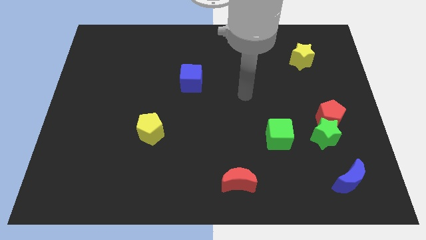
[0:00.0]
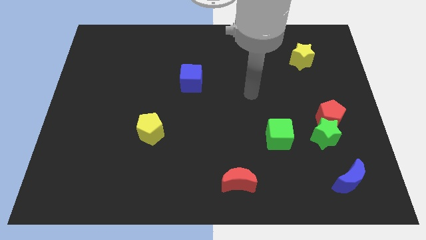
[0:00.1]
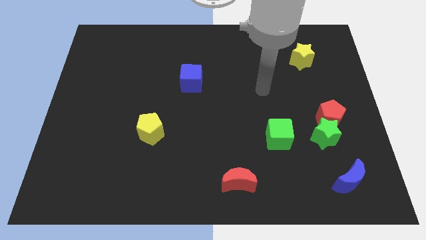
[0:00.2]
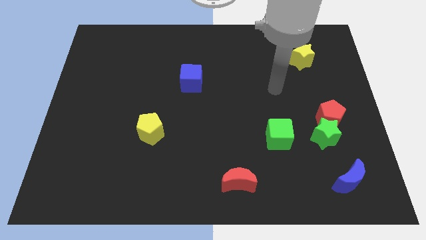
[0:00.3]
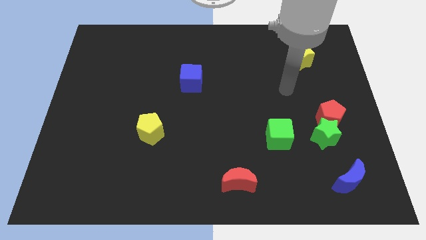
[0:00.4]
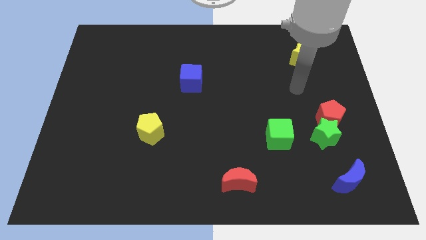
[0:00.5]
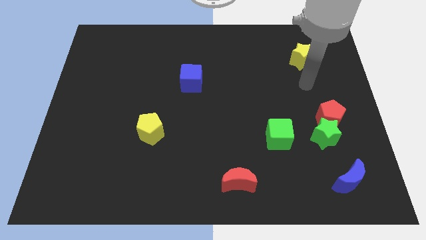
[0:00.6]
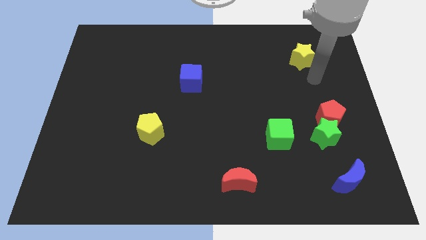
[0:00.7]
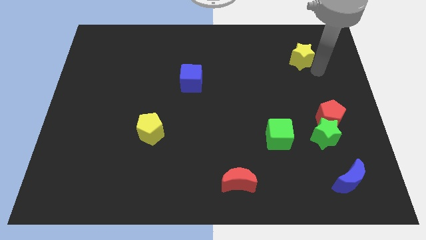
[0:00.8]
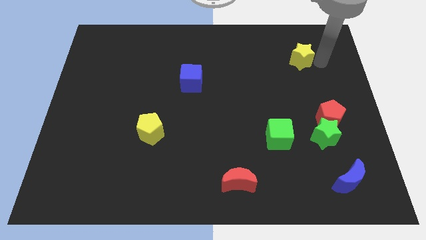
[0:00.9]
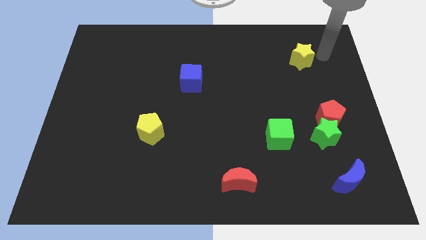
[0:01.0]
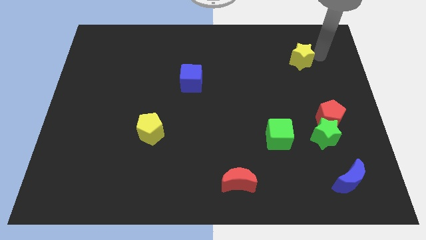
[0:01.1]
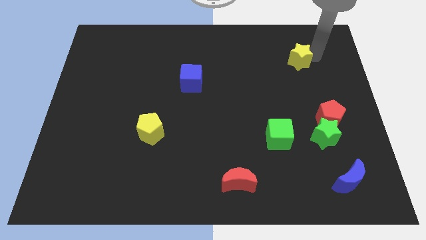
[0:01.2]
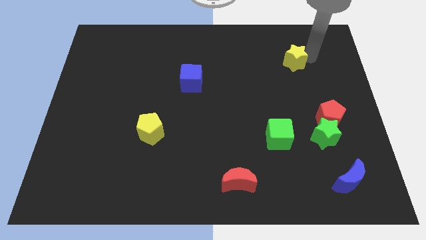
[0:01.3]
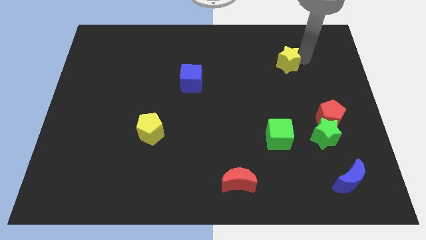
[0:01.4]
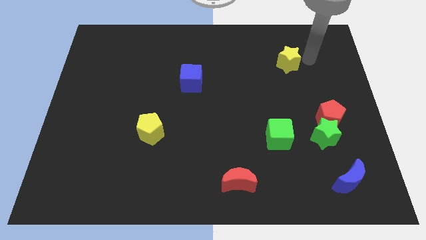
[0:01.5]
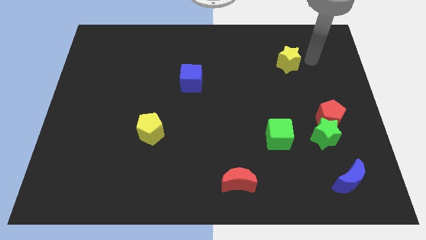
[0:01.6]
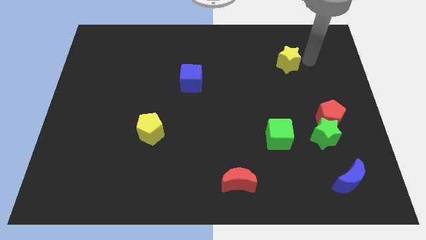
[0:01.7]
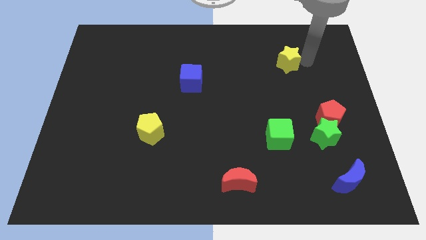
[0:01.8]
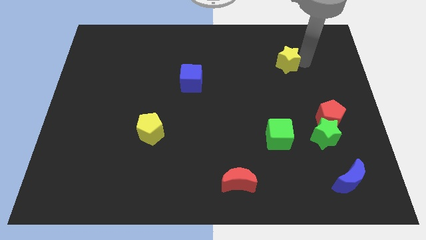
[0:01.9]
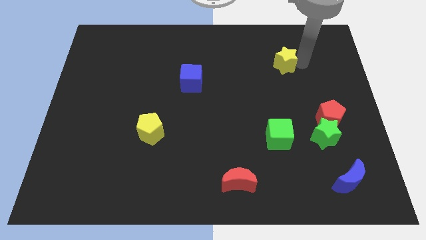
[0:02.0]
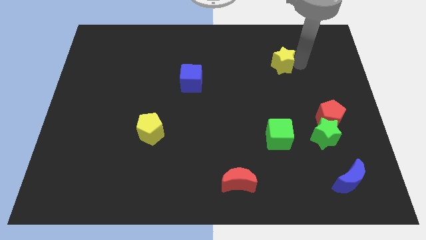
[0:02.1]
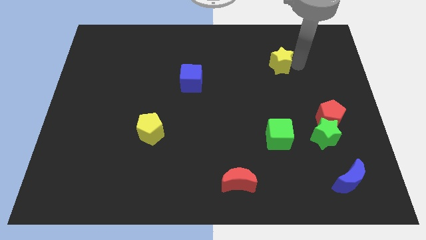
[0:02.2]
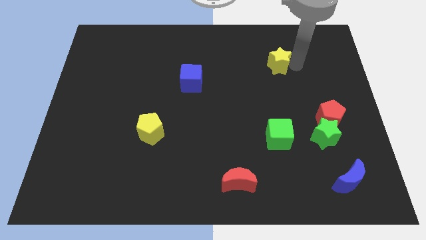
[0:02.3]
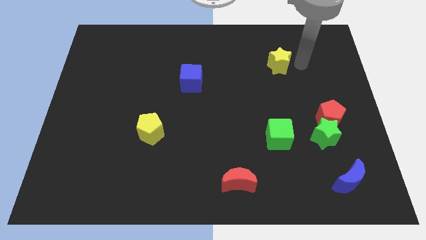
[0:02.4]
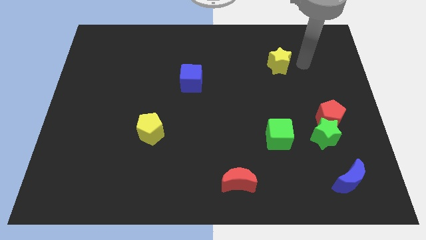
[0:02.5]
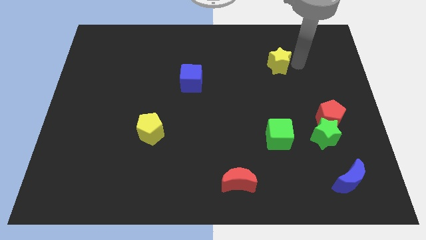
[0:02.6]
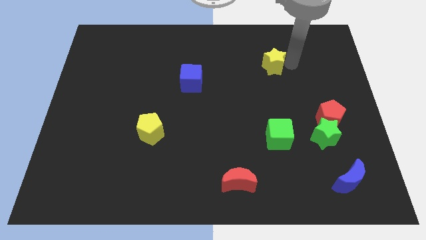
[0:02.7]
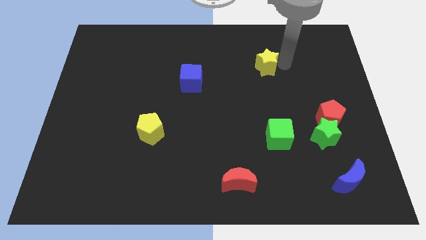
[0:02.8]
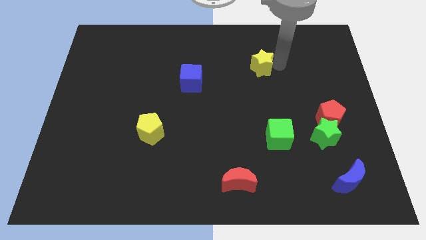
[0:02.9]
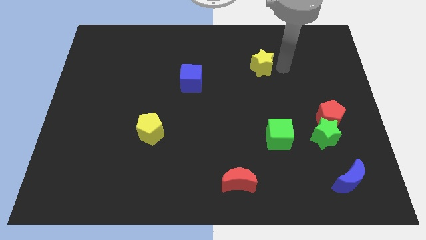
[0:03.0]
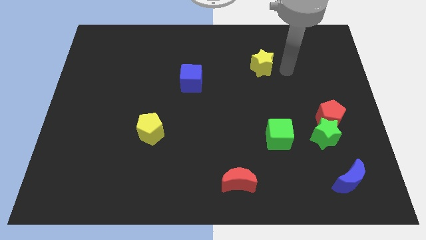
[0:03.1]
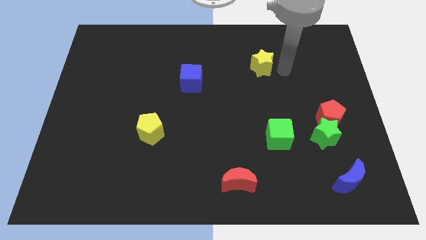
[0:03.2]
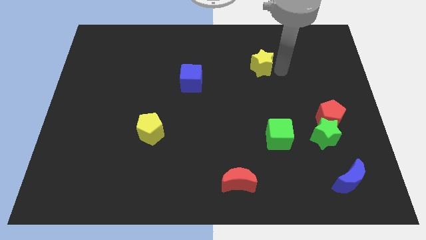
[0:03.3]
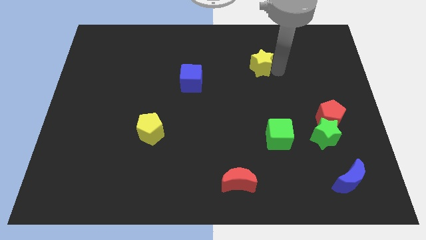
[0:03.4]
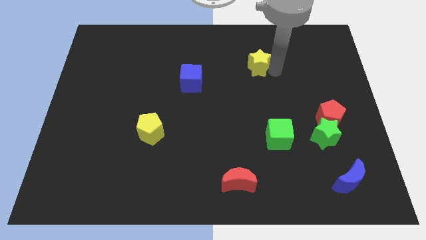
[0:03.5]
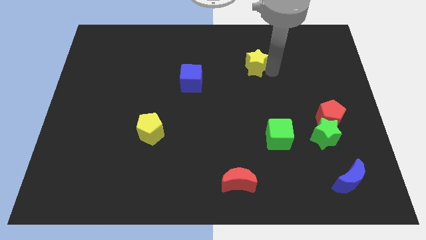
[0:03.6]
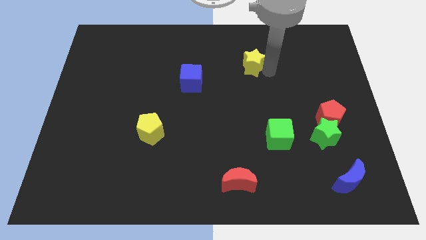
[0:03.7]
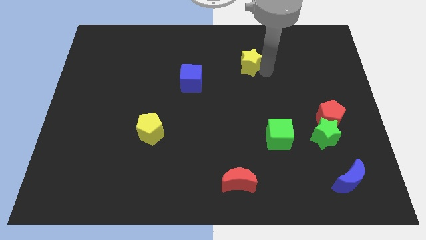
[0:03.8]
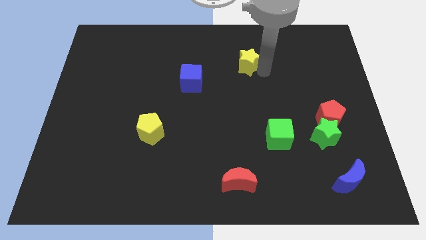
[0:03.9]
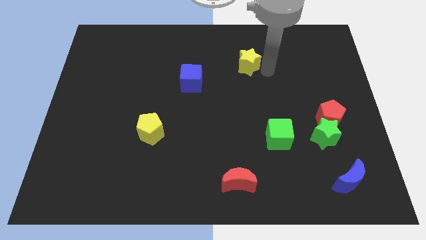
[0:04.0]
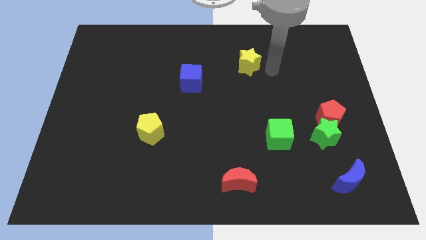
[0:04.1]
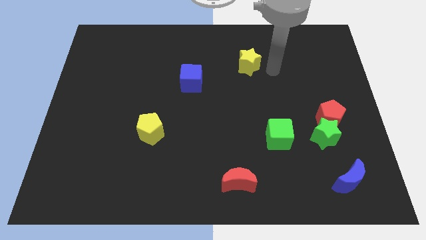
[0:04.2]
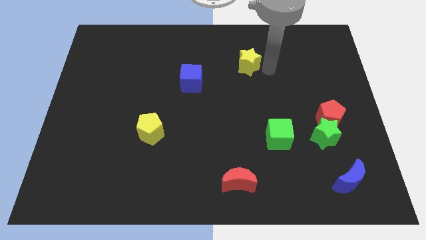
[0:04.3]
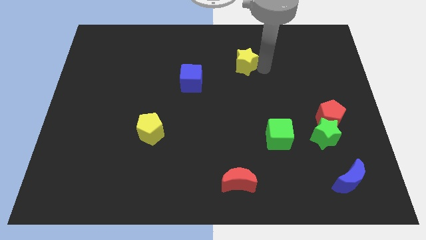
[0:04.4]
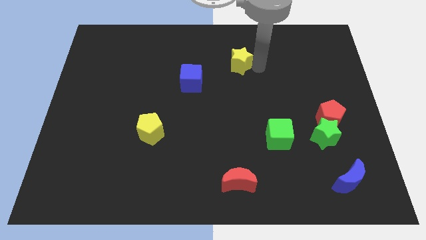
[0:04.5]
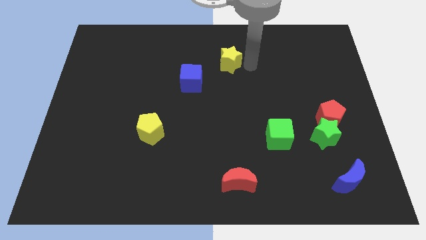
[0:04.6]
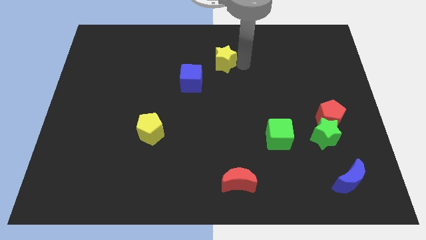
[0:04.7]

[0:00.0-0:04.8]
push the yellow star to the left

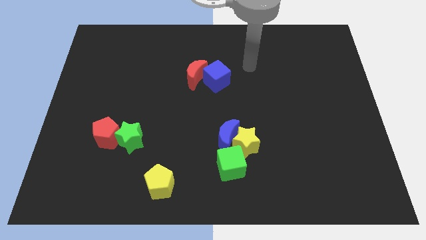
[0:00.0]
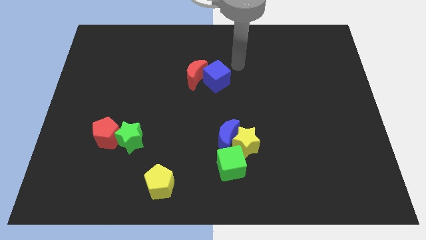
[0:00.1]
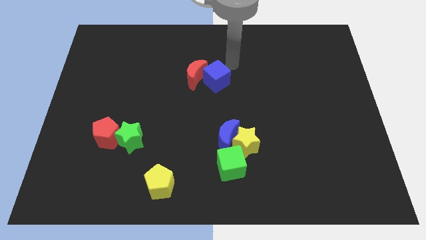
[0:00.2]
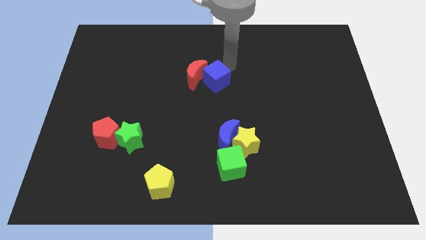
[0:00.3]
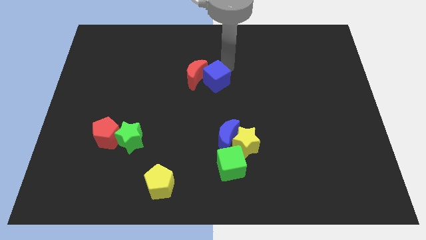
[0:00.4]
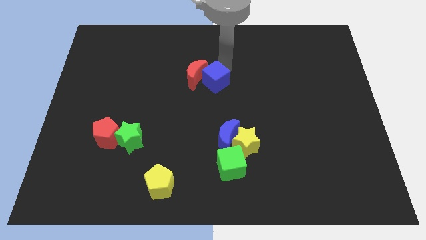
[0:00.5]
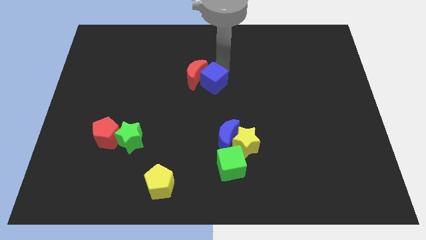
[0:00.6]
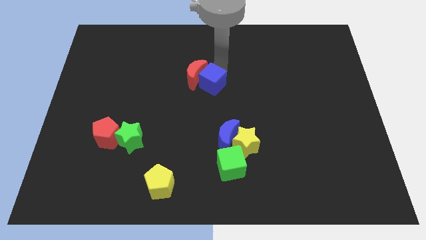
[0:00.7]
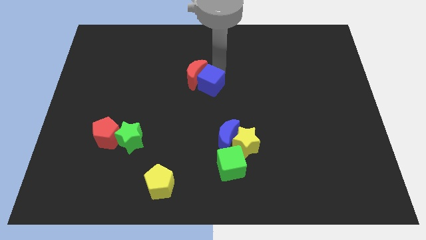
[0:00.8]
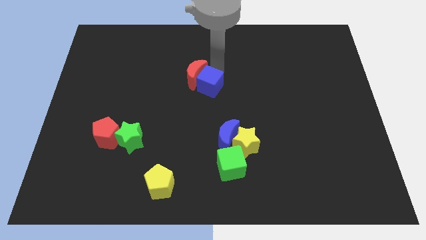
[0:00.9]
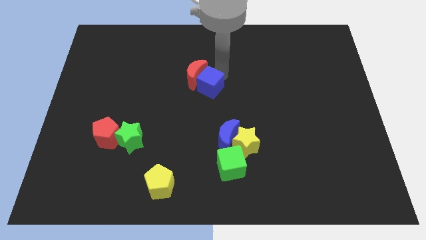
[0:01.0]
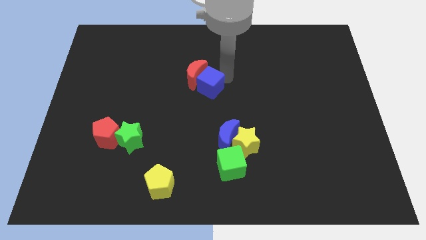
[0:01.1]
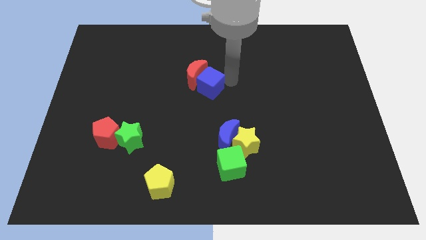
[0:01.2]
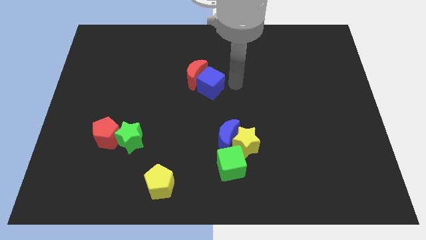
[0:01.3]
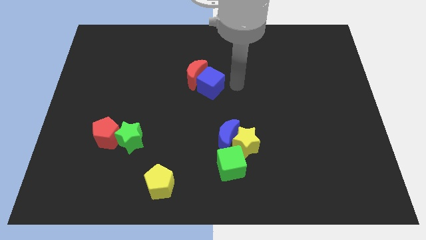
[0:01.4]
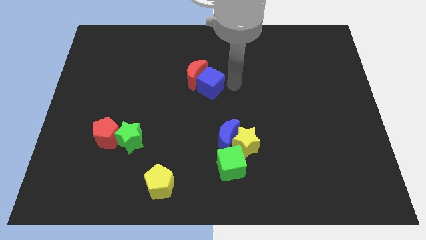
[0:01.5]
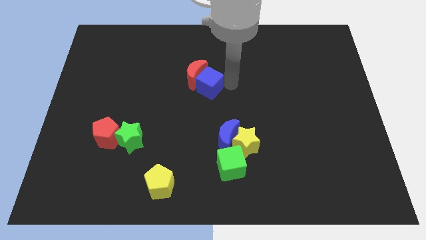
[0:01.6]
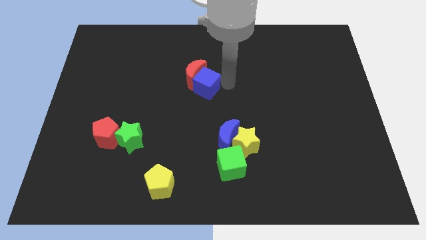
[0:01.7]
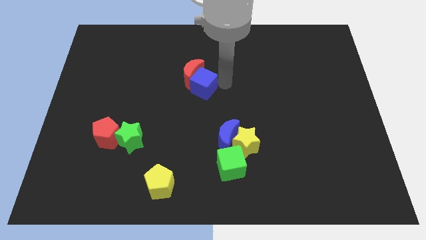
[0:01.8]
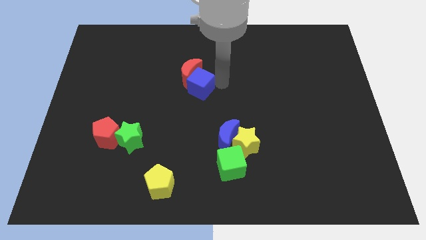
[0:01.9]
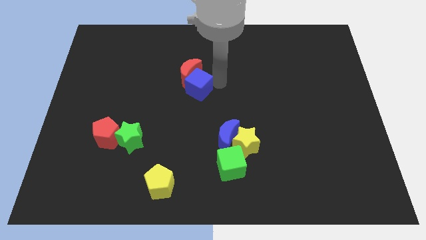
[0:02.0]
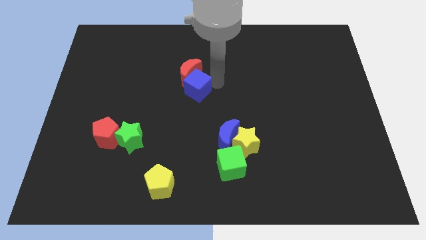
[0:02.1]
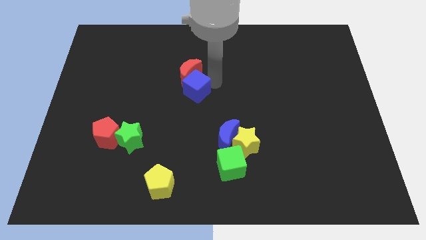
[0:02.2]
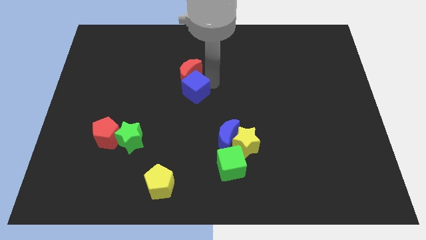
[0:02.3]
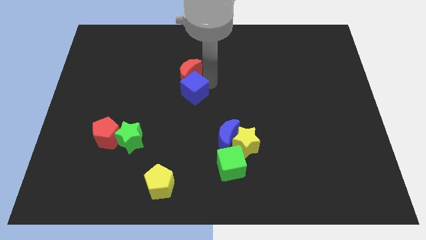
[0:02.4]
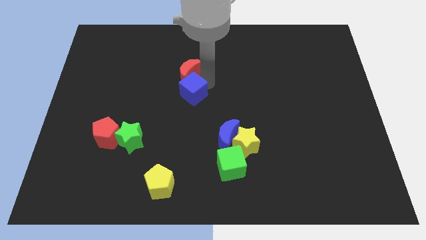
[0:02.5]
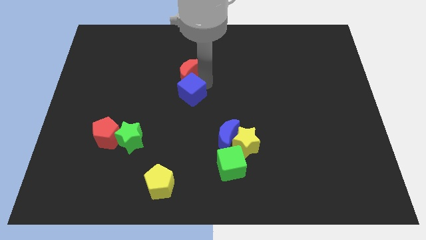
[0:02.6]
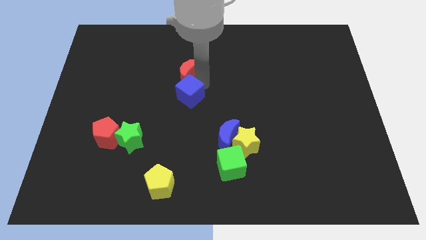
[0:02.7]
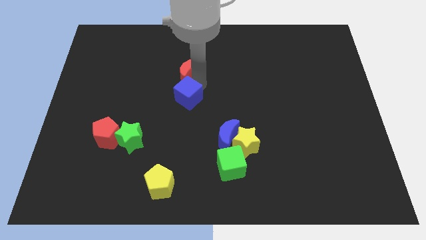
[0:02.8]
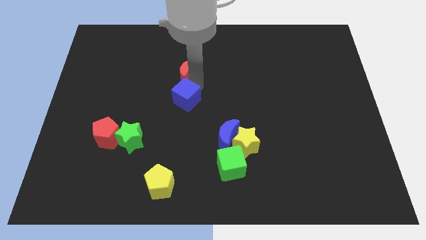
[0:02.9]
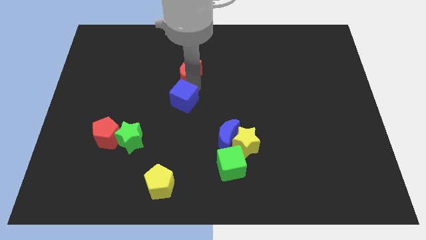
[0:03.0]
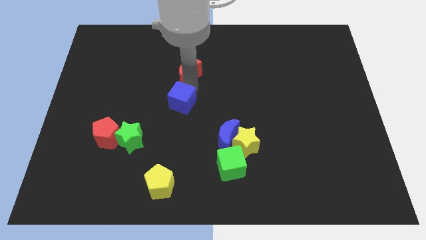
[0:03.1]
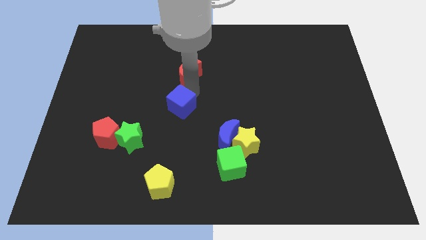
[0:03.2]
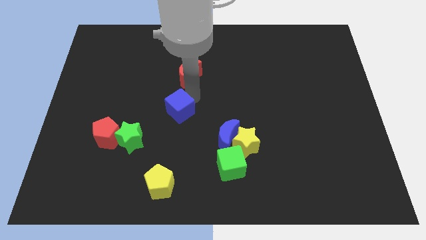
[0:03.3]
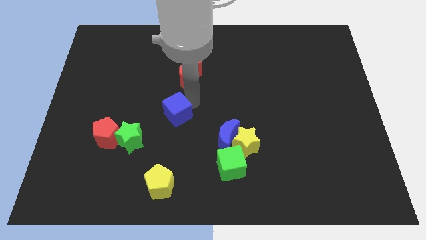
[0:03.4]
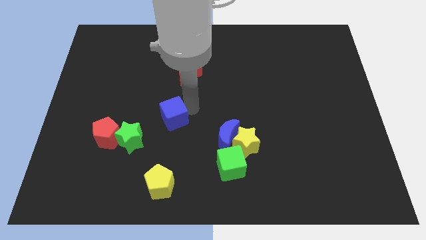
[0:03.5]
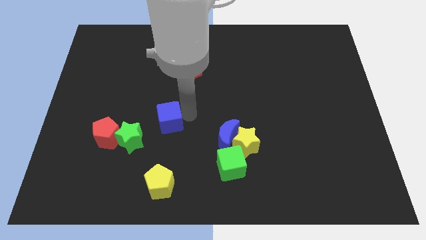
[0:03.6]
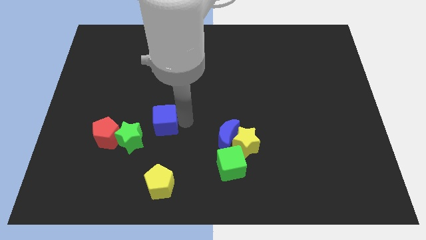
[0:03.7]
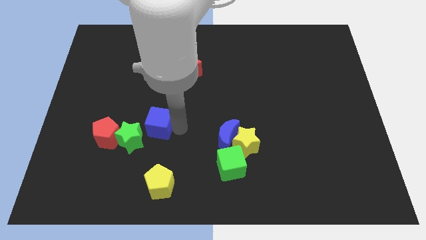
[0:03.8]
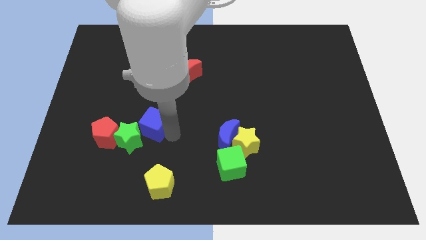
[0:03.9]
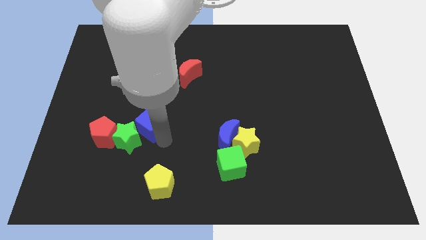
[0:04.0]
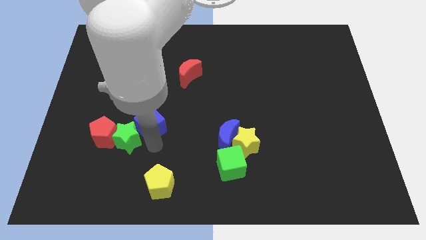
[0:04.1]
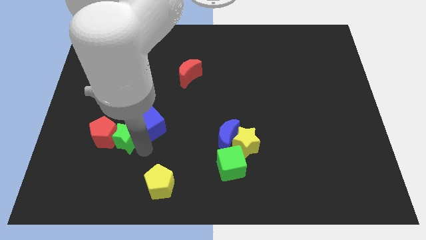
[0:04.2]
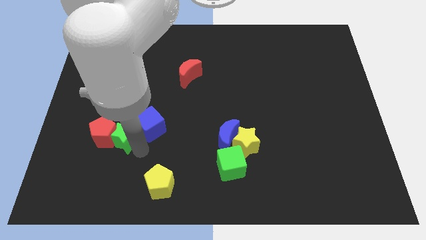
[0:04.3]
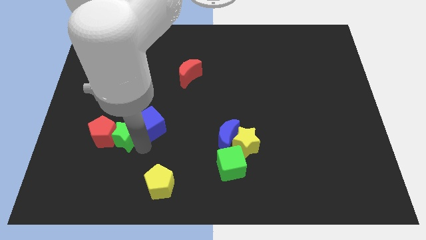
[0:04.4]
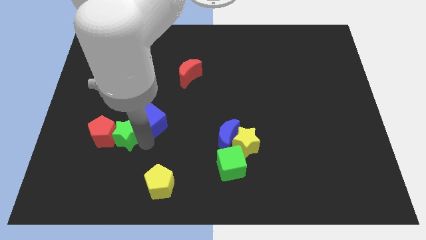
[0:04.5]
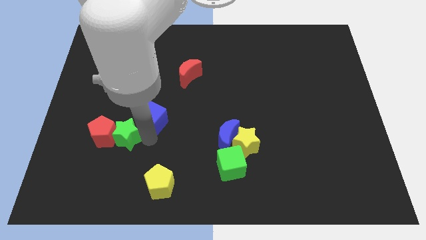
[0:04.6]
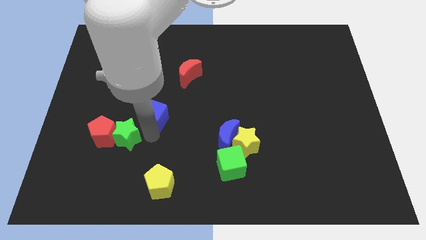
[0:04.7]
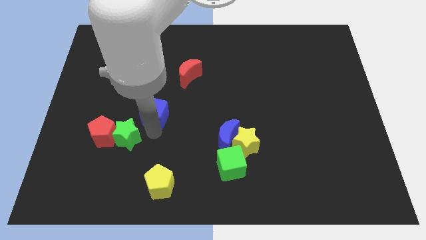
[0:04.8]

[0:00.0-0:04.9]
move the blue cube somewhat to the left
